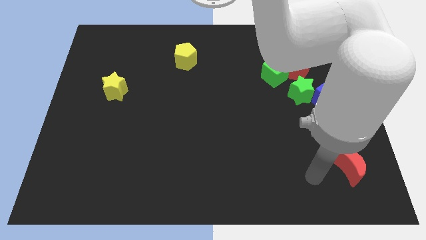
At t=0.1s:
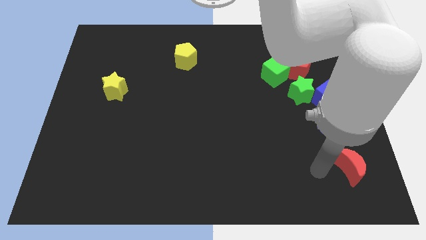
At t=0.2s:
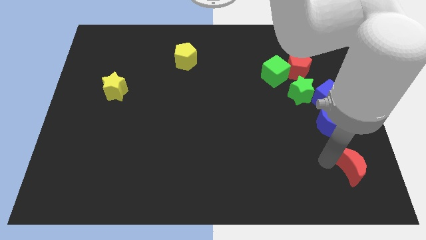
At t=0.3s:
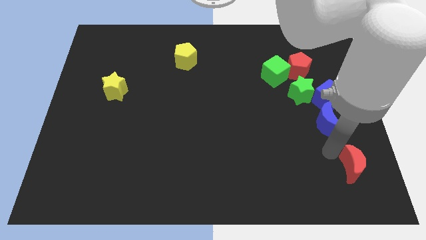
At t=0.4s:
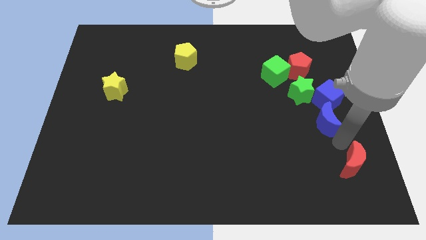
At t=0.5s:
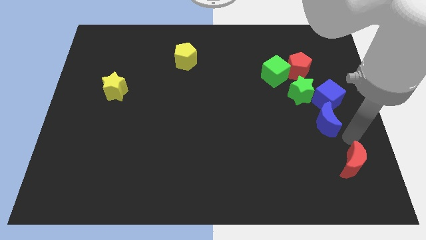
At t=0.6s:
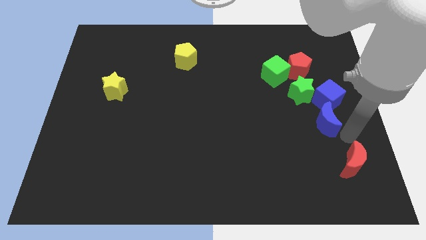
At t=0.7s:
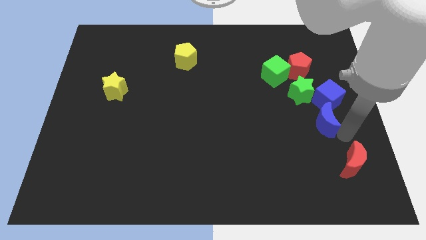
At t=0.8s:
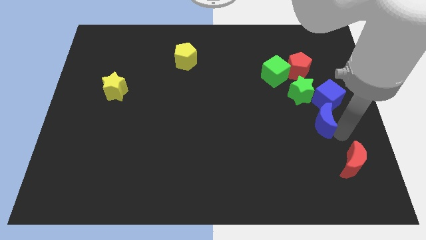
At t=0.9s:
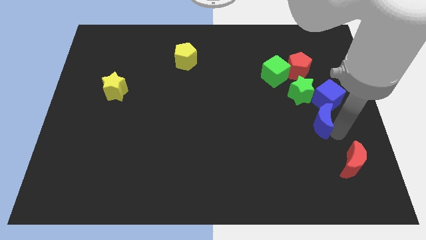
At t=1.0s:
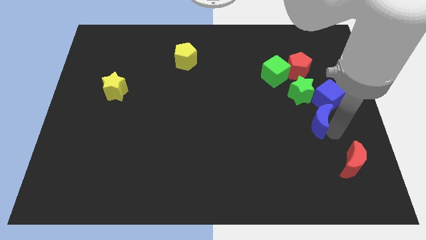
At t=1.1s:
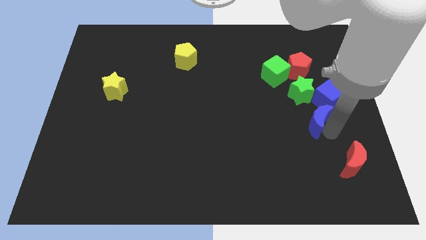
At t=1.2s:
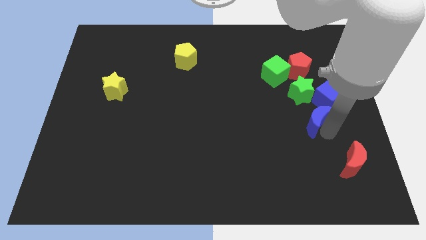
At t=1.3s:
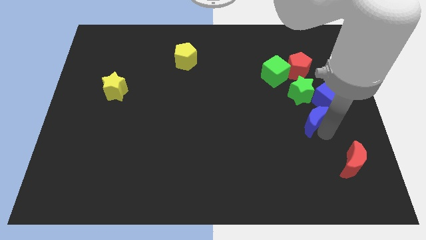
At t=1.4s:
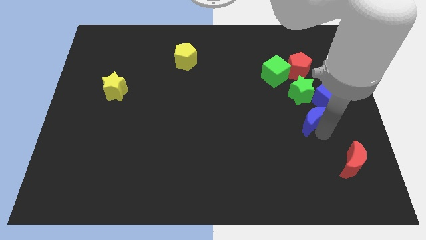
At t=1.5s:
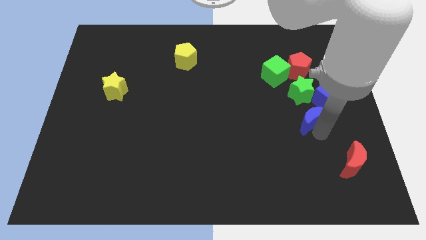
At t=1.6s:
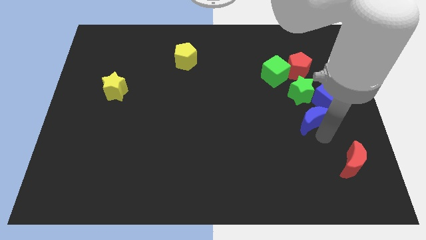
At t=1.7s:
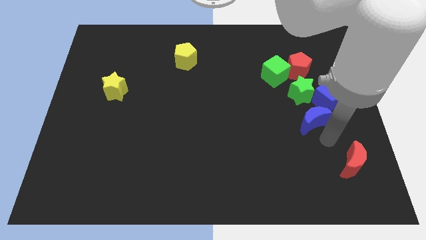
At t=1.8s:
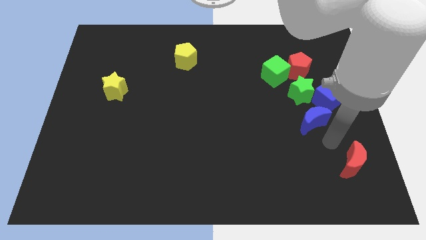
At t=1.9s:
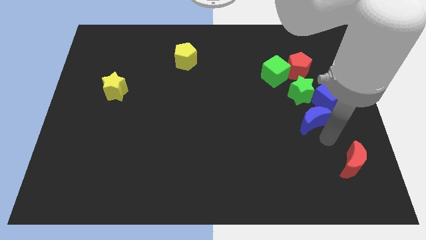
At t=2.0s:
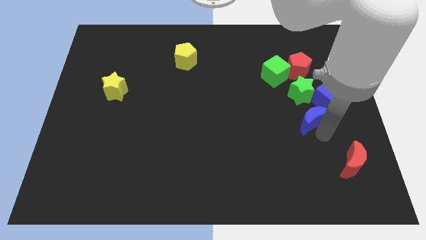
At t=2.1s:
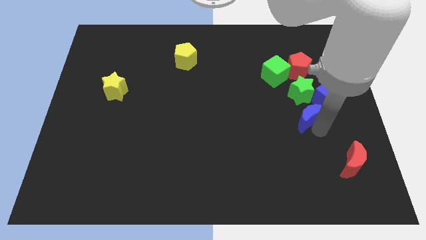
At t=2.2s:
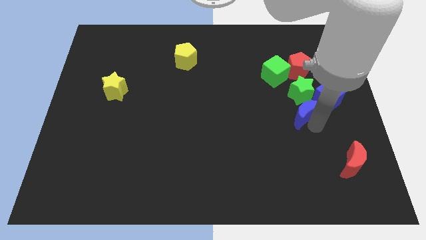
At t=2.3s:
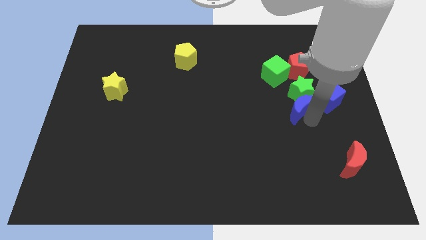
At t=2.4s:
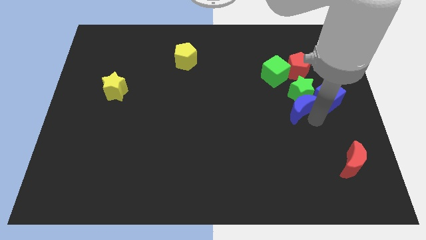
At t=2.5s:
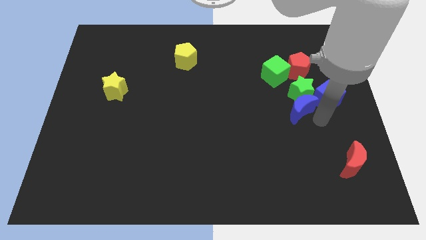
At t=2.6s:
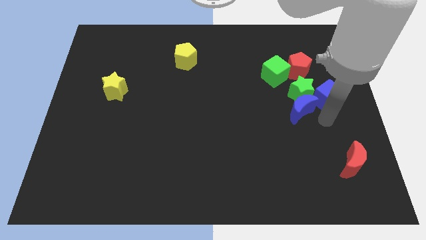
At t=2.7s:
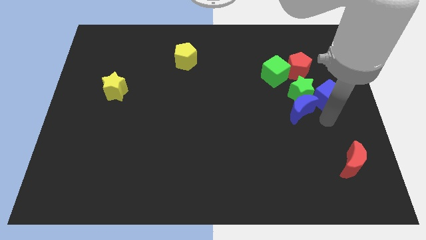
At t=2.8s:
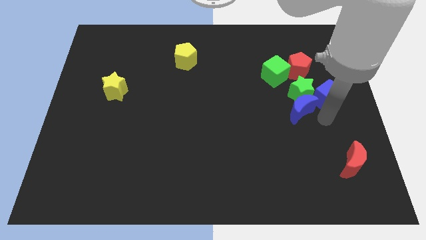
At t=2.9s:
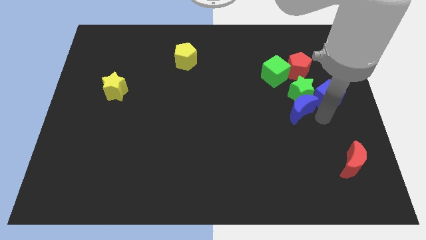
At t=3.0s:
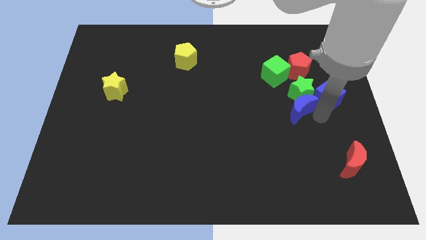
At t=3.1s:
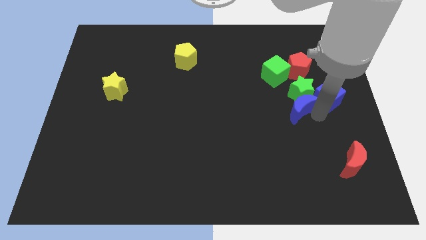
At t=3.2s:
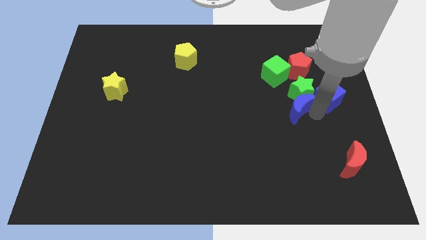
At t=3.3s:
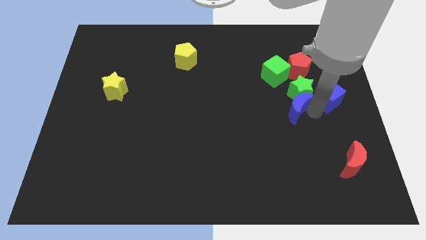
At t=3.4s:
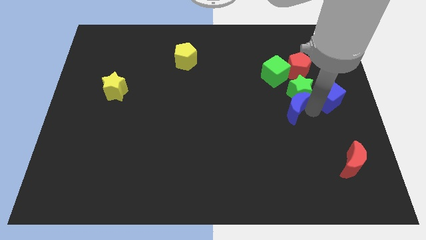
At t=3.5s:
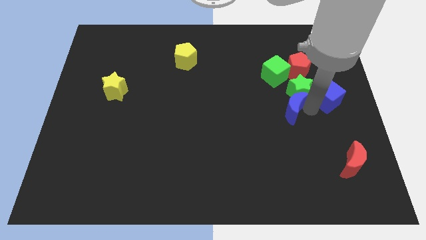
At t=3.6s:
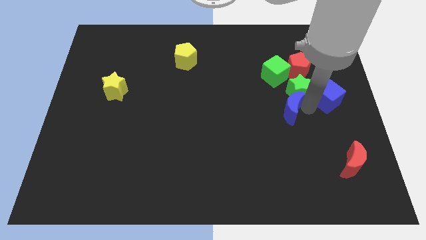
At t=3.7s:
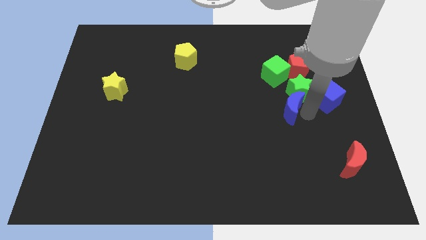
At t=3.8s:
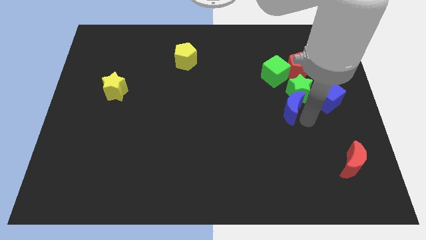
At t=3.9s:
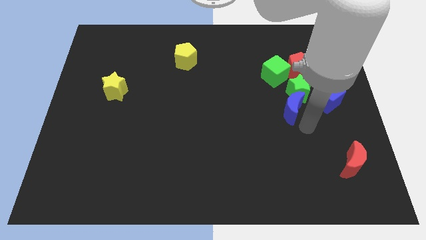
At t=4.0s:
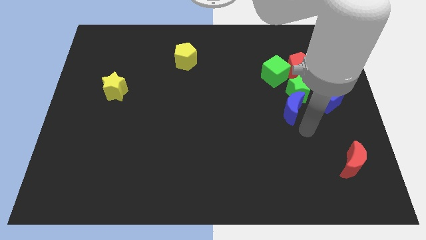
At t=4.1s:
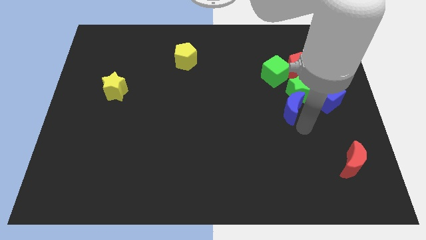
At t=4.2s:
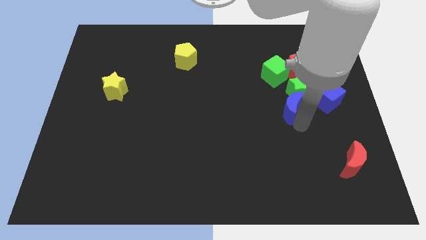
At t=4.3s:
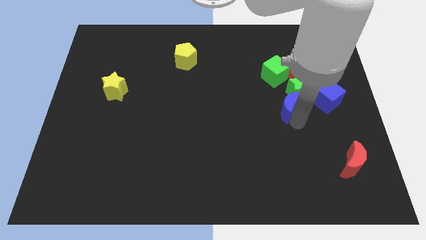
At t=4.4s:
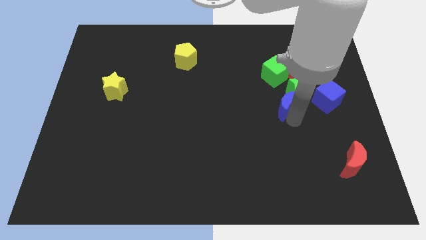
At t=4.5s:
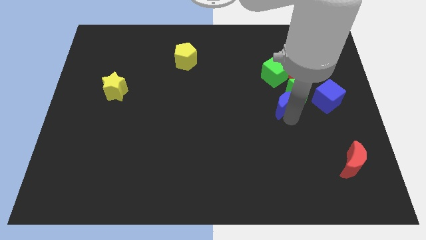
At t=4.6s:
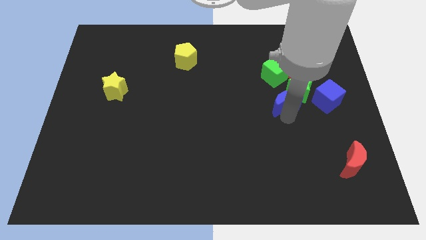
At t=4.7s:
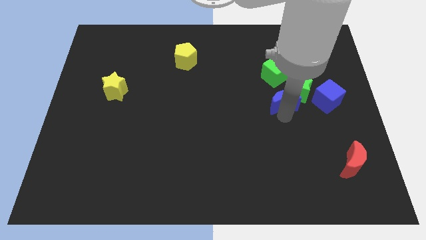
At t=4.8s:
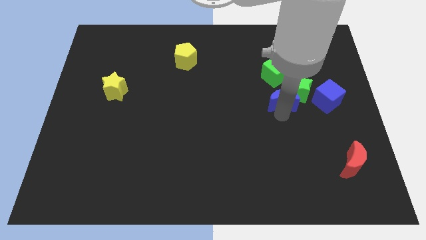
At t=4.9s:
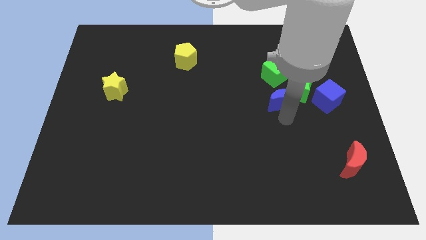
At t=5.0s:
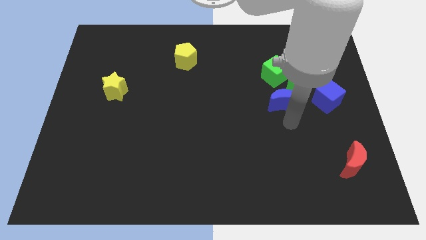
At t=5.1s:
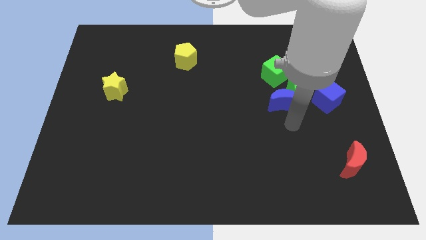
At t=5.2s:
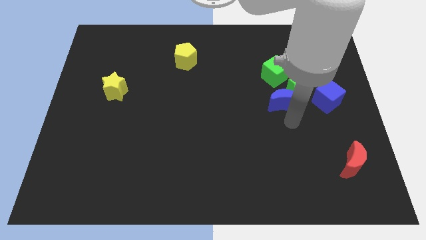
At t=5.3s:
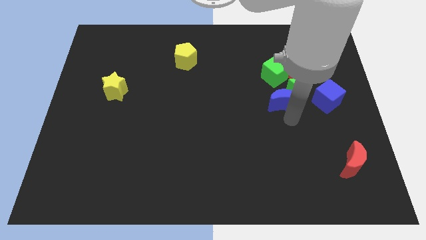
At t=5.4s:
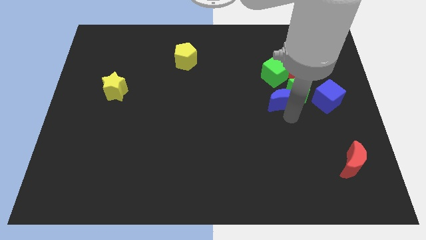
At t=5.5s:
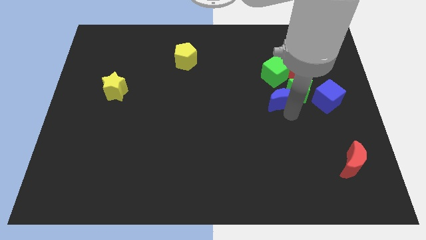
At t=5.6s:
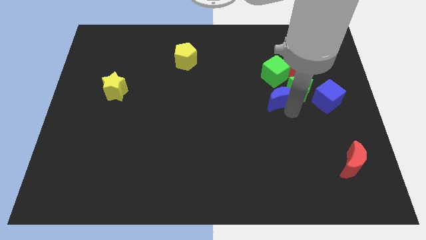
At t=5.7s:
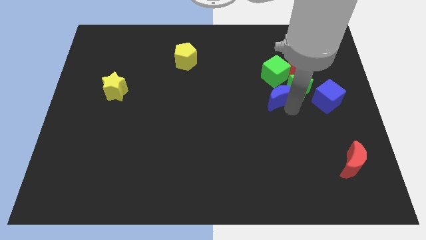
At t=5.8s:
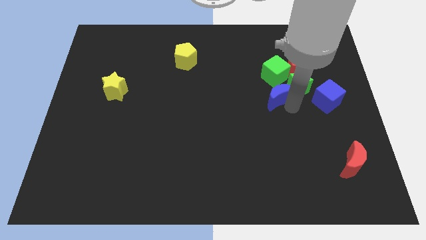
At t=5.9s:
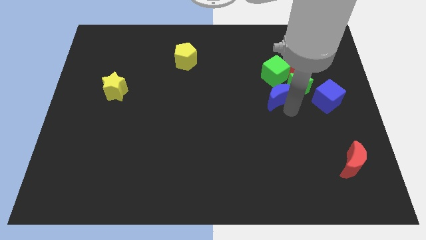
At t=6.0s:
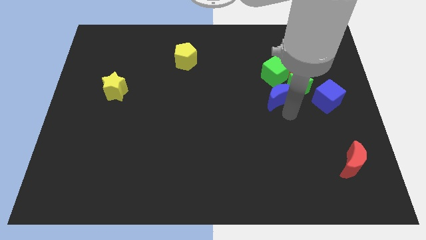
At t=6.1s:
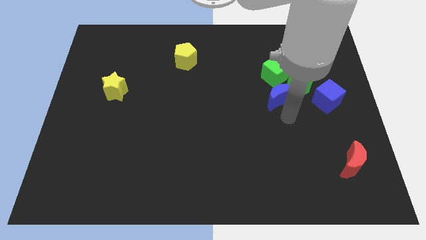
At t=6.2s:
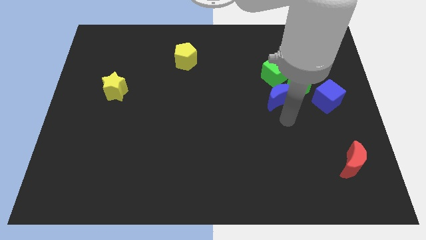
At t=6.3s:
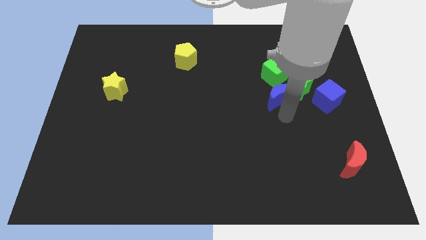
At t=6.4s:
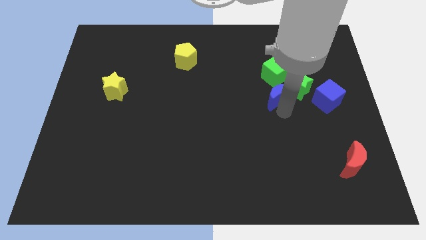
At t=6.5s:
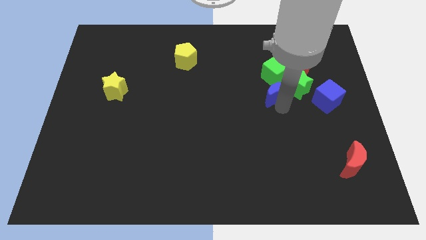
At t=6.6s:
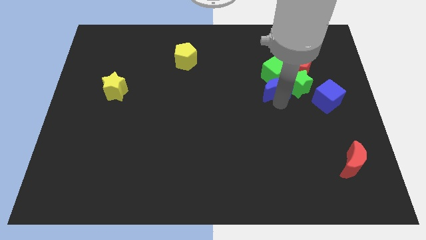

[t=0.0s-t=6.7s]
move the blue moon close to the green cube

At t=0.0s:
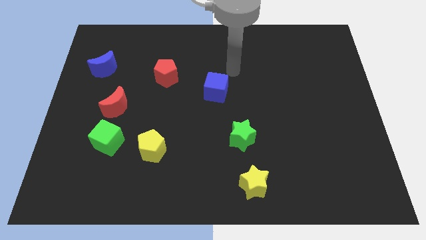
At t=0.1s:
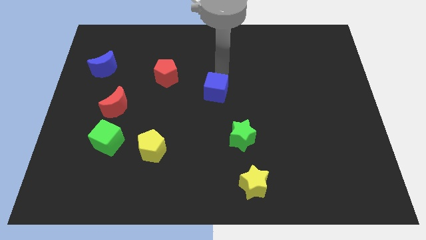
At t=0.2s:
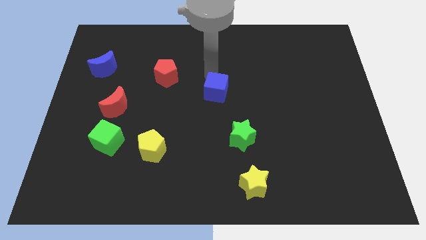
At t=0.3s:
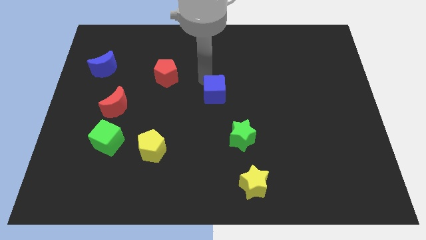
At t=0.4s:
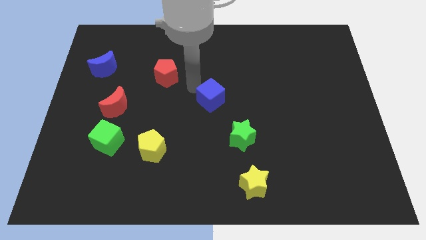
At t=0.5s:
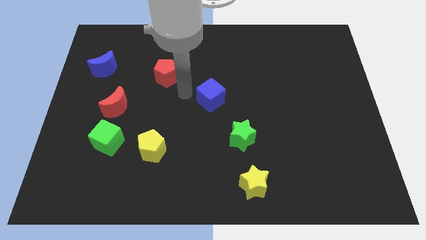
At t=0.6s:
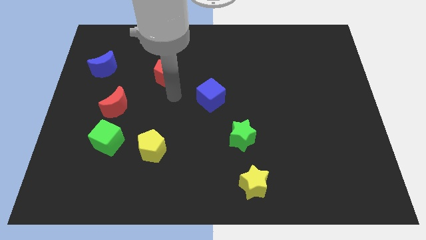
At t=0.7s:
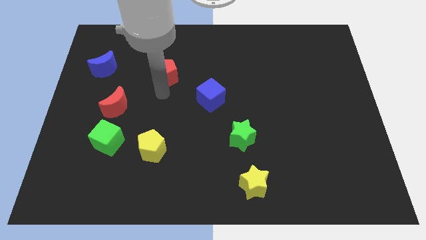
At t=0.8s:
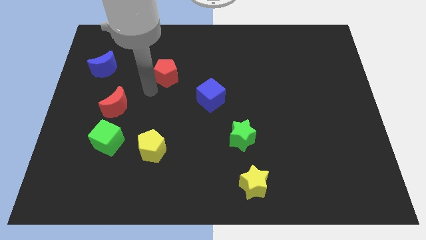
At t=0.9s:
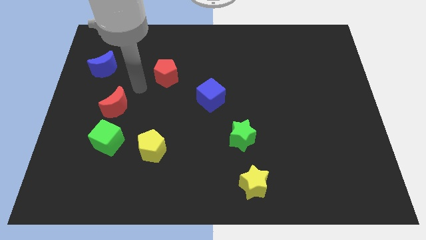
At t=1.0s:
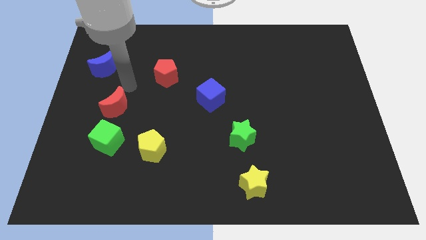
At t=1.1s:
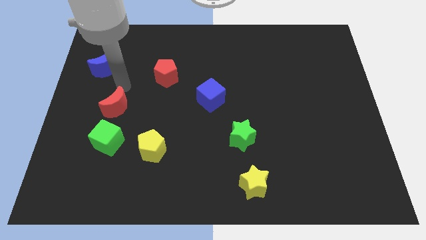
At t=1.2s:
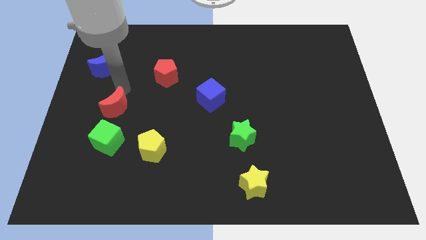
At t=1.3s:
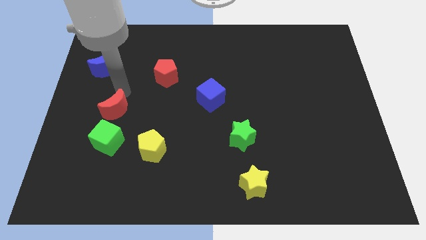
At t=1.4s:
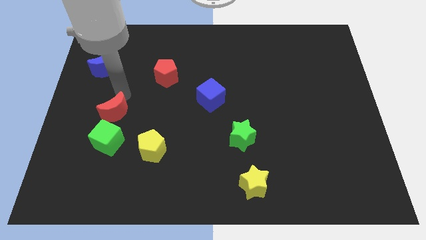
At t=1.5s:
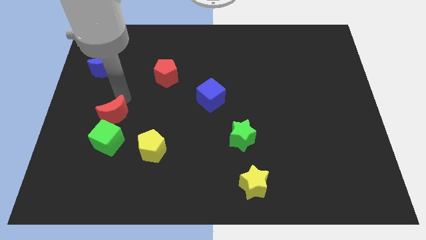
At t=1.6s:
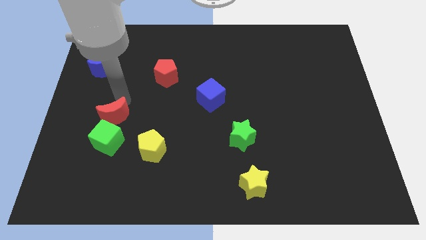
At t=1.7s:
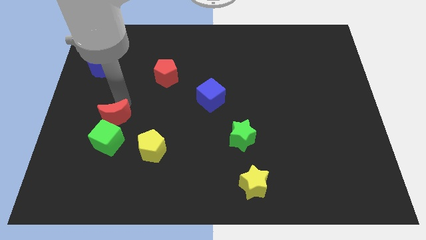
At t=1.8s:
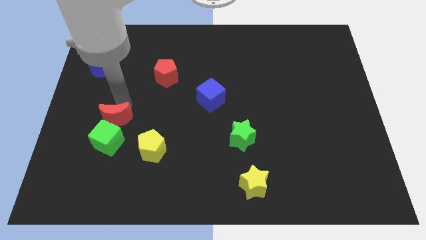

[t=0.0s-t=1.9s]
move the red moon close to the green cube
